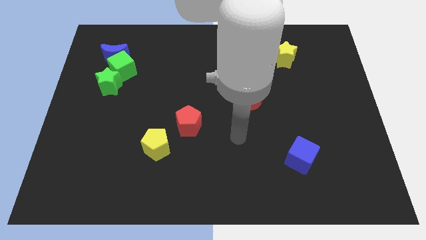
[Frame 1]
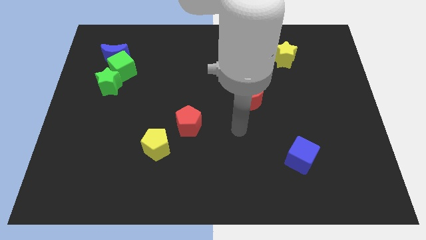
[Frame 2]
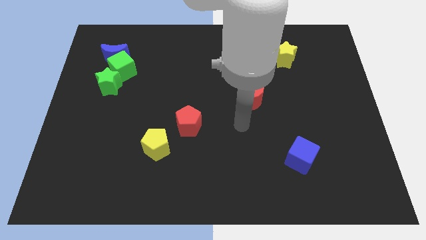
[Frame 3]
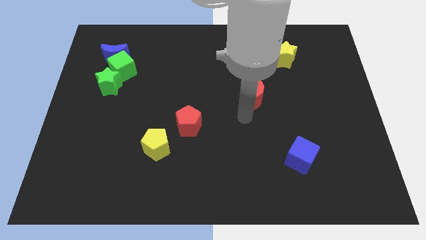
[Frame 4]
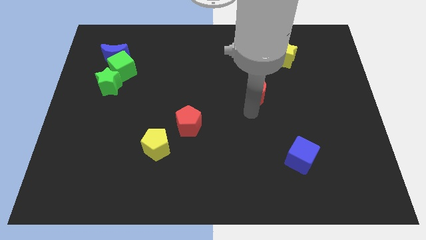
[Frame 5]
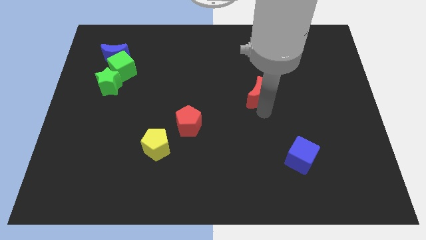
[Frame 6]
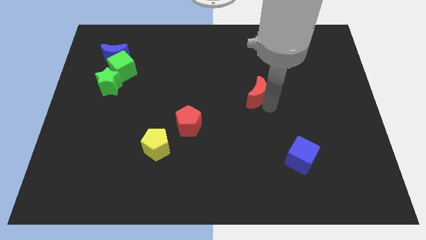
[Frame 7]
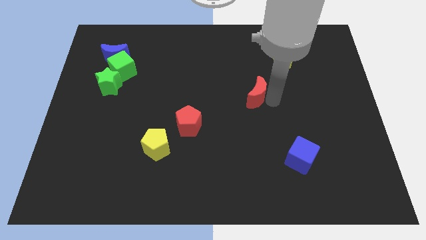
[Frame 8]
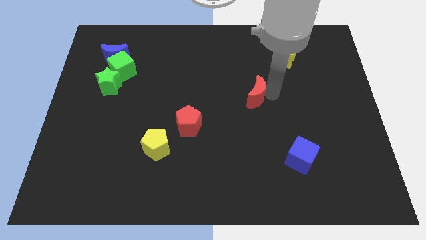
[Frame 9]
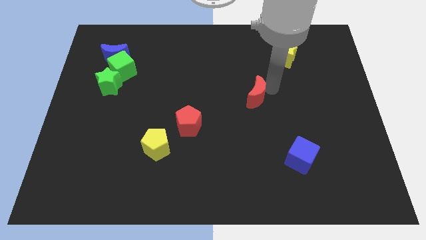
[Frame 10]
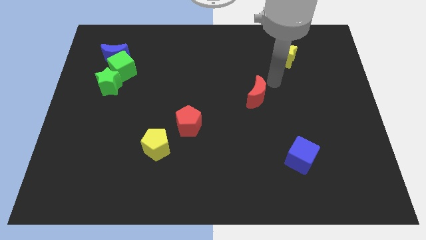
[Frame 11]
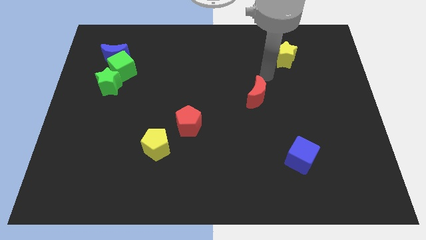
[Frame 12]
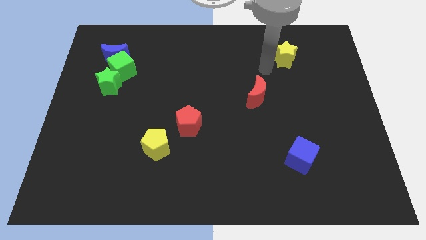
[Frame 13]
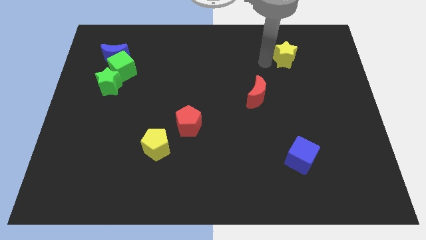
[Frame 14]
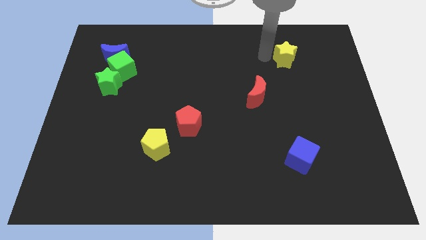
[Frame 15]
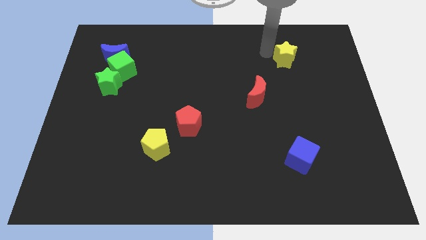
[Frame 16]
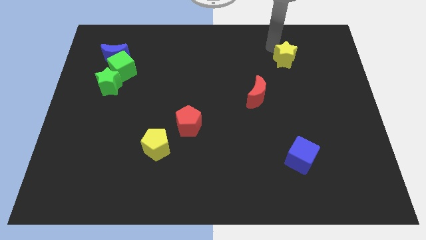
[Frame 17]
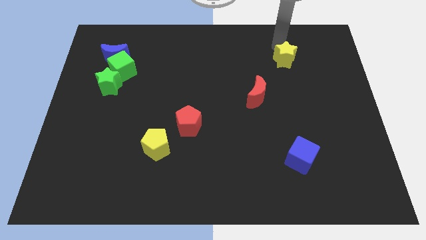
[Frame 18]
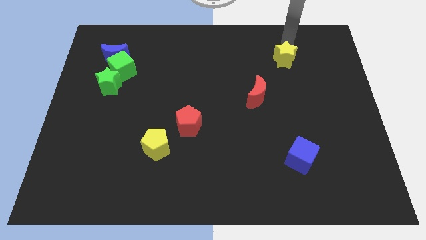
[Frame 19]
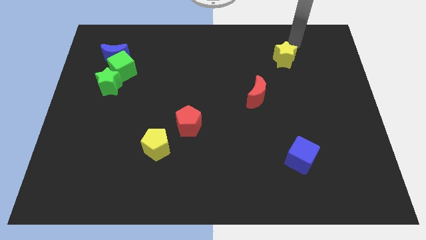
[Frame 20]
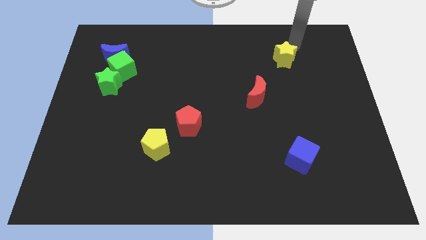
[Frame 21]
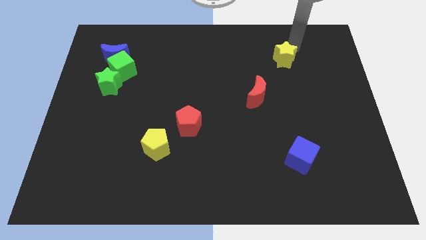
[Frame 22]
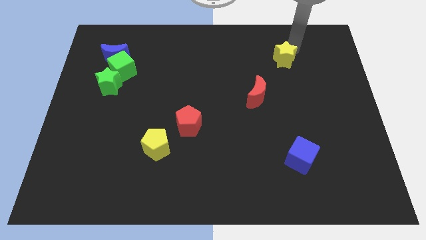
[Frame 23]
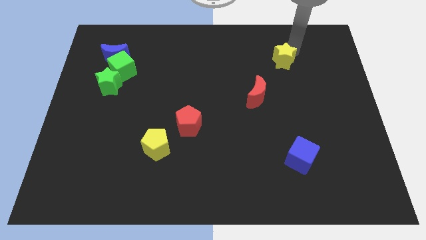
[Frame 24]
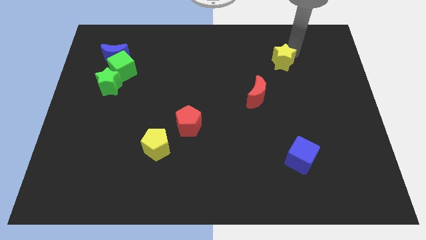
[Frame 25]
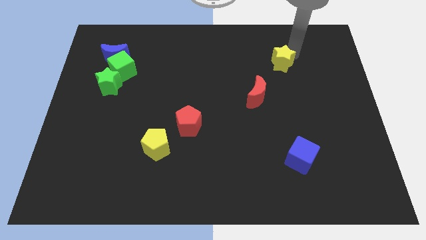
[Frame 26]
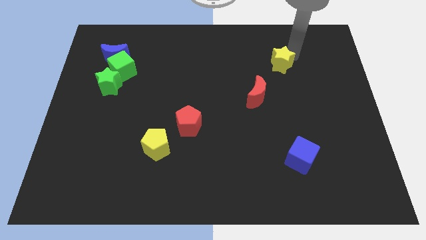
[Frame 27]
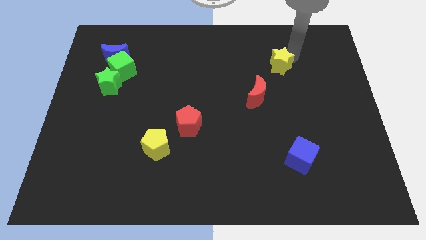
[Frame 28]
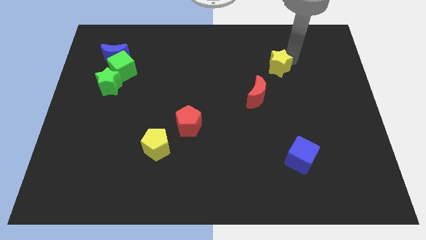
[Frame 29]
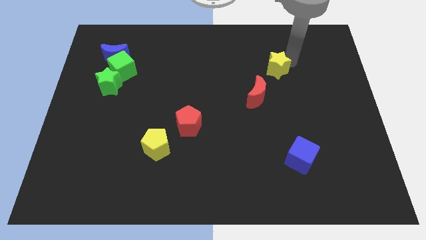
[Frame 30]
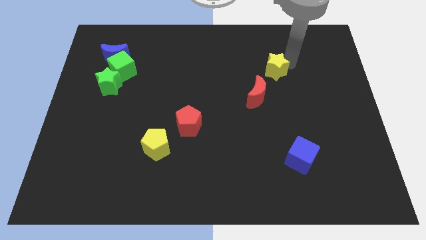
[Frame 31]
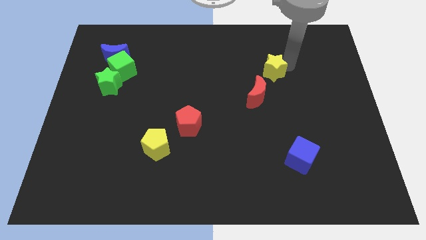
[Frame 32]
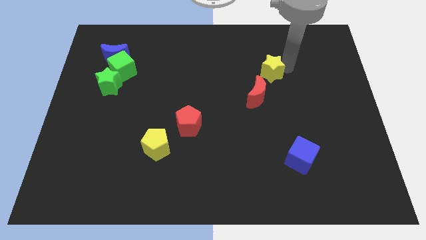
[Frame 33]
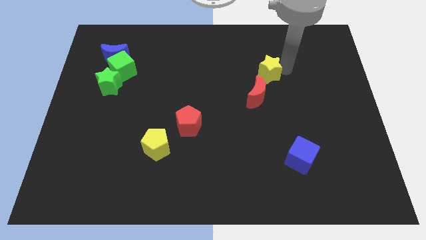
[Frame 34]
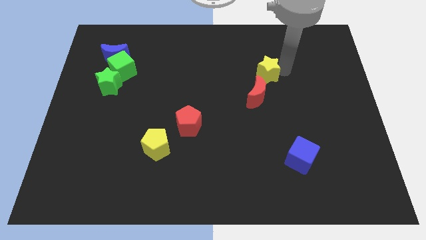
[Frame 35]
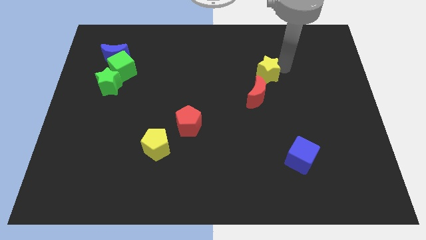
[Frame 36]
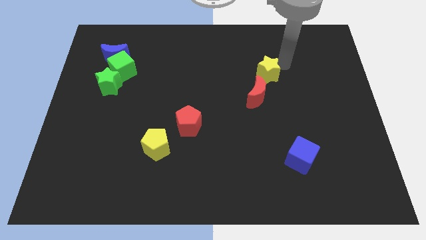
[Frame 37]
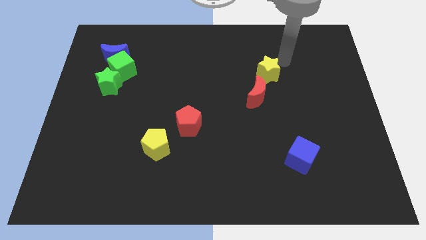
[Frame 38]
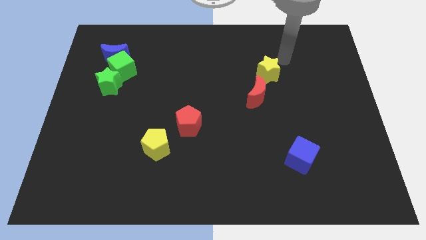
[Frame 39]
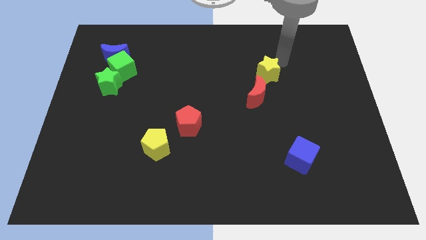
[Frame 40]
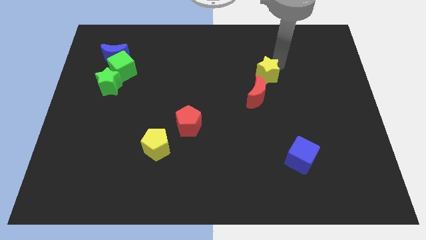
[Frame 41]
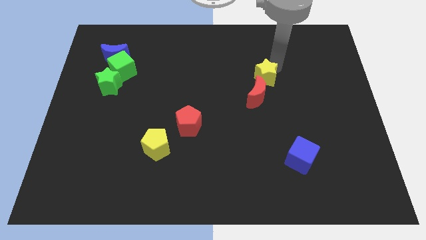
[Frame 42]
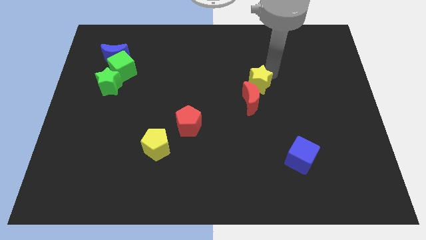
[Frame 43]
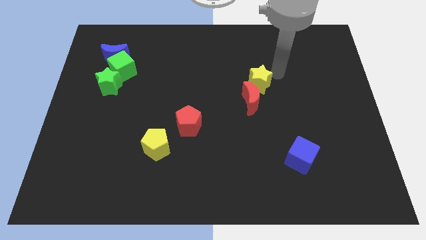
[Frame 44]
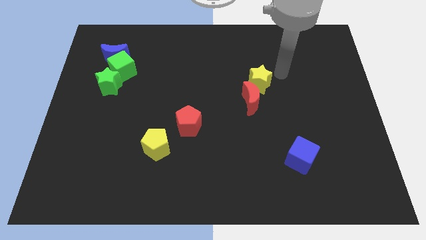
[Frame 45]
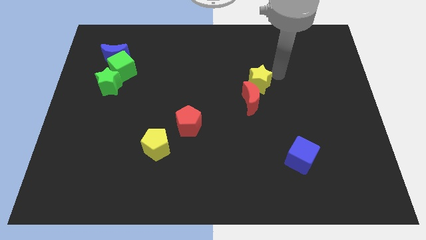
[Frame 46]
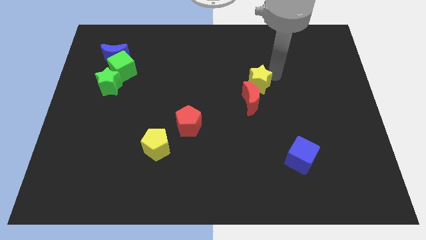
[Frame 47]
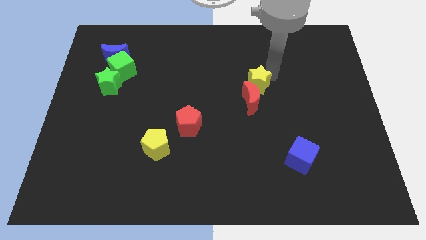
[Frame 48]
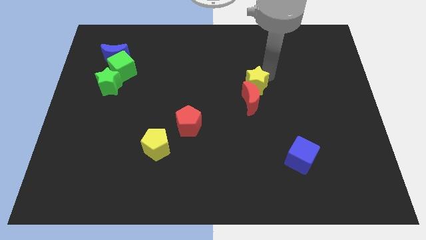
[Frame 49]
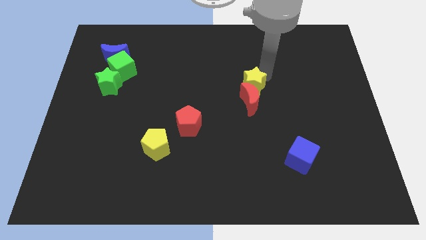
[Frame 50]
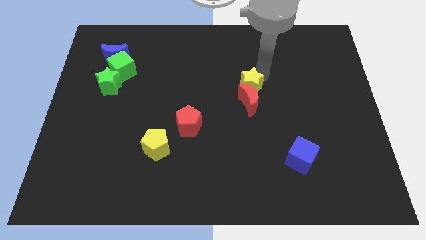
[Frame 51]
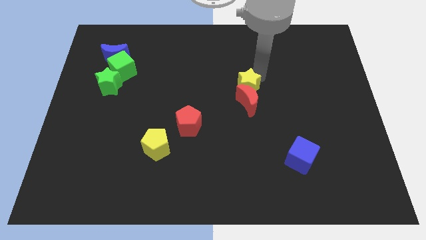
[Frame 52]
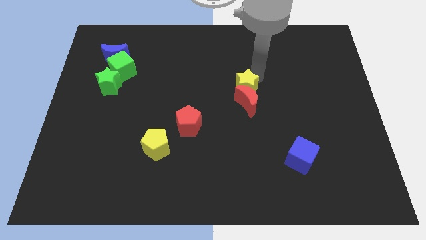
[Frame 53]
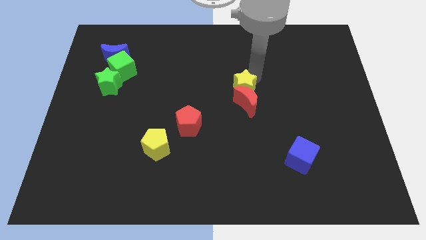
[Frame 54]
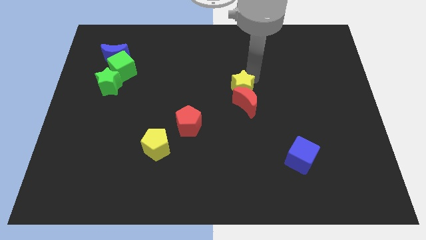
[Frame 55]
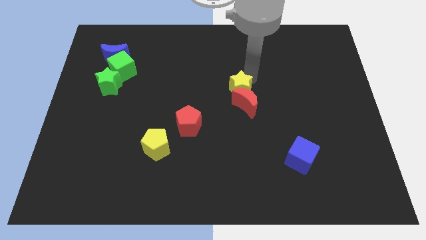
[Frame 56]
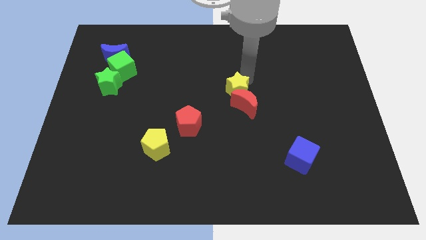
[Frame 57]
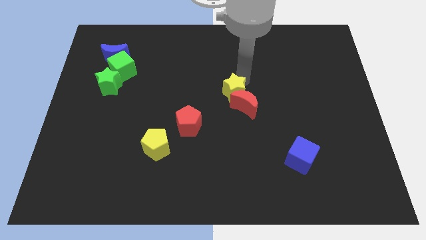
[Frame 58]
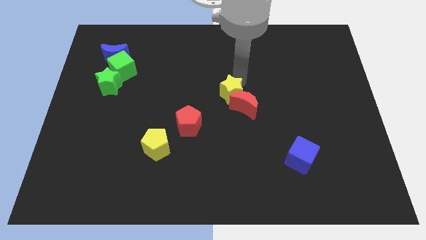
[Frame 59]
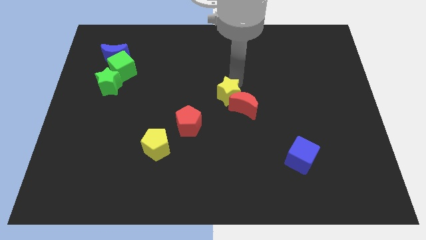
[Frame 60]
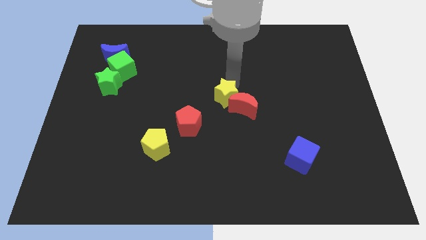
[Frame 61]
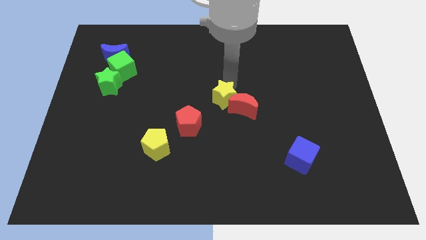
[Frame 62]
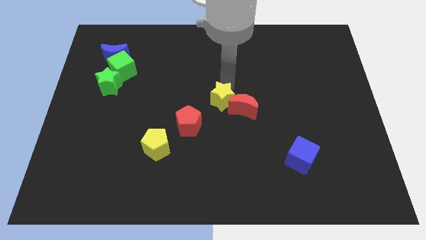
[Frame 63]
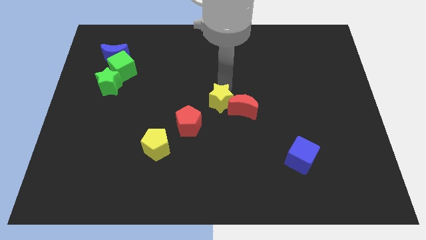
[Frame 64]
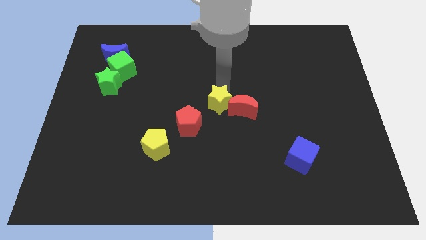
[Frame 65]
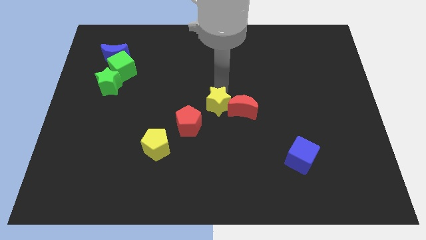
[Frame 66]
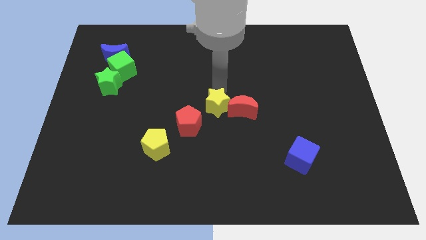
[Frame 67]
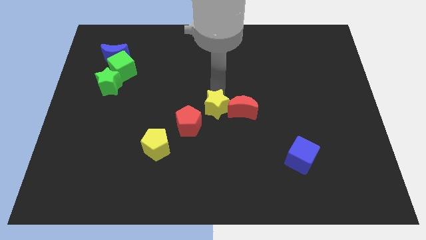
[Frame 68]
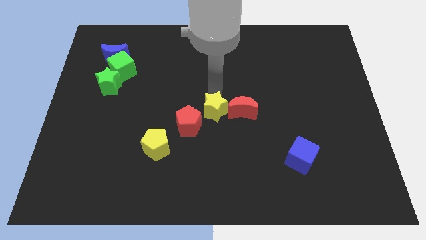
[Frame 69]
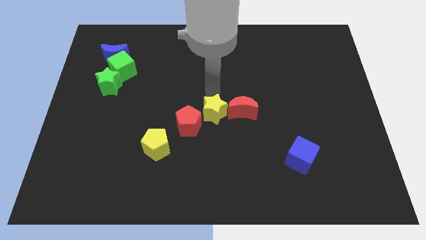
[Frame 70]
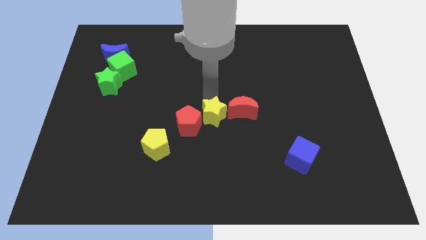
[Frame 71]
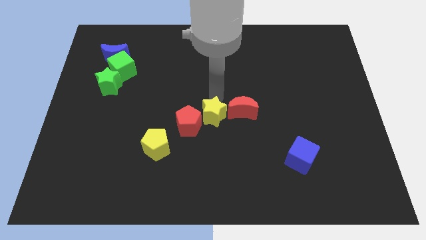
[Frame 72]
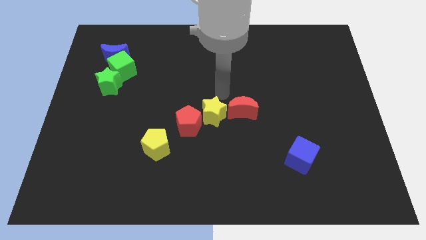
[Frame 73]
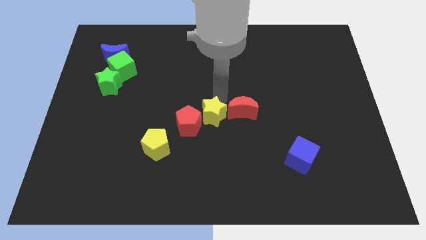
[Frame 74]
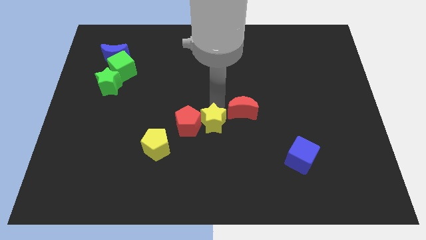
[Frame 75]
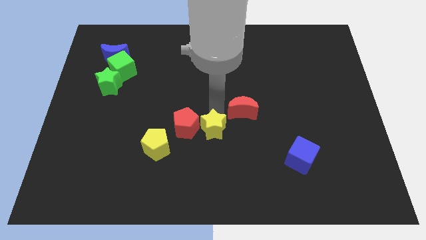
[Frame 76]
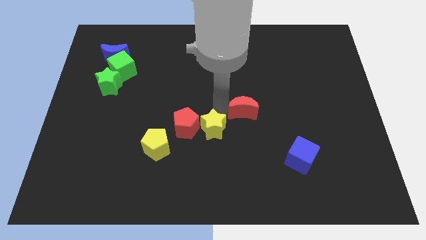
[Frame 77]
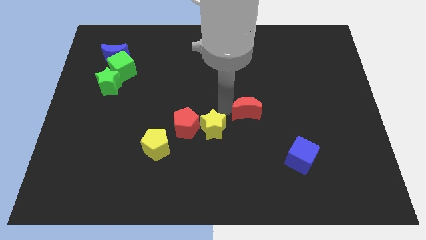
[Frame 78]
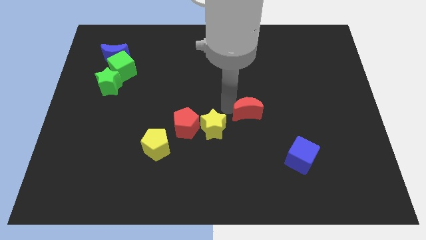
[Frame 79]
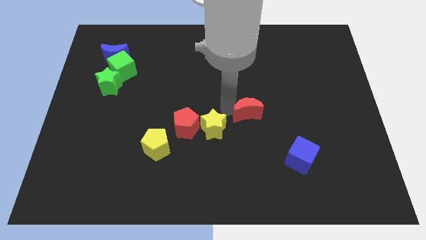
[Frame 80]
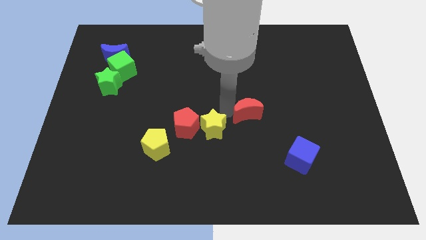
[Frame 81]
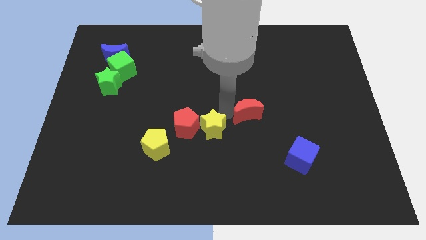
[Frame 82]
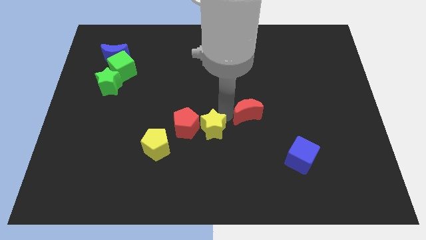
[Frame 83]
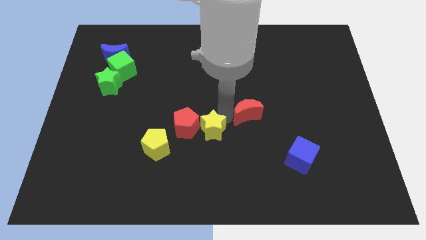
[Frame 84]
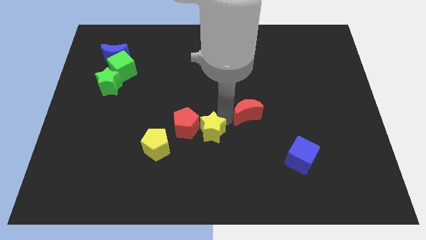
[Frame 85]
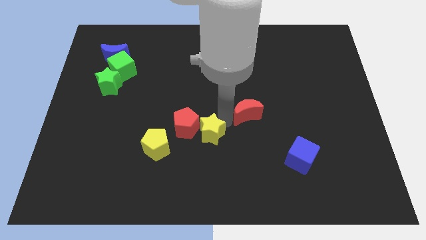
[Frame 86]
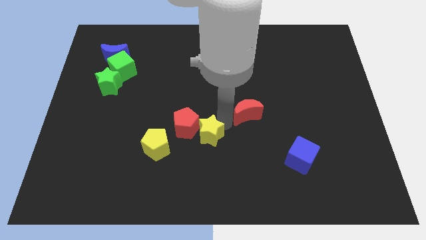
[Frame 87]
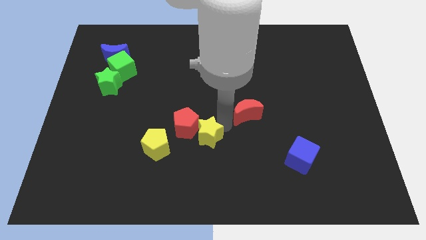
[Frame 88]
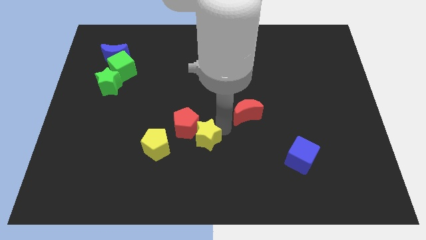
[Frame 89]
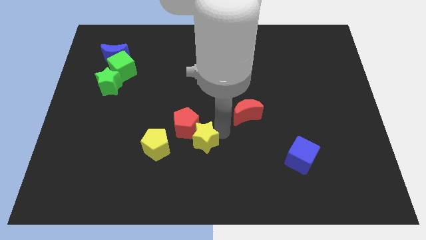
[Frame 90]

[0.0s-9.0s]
slide the yellow star to the bottom of the red pentagon
